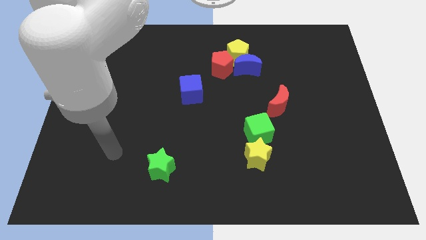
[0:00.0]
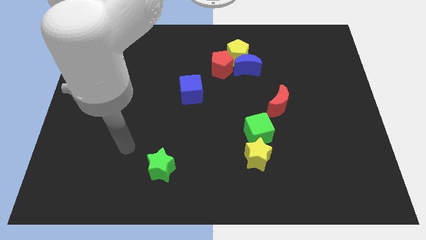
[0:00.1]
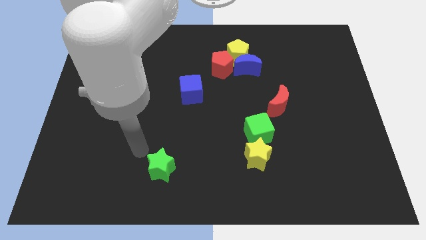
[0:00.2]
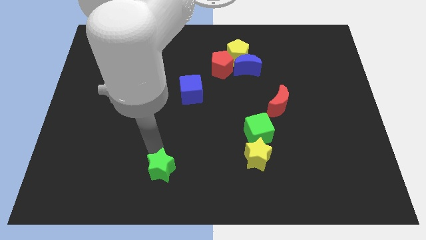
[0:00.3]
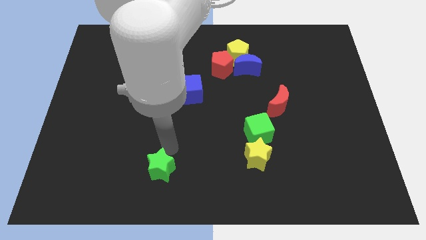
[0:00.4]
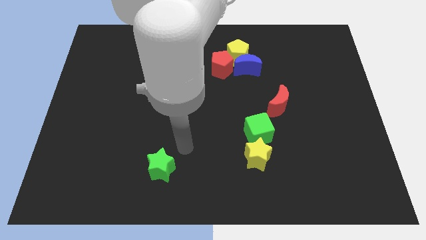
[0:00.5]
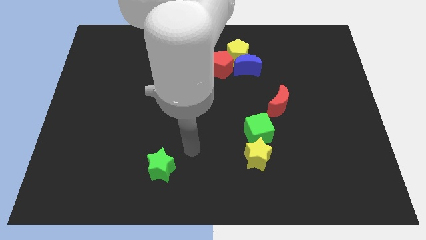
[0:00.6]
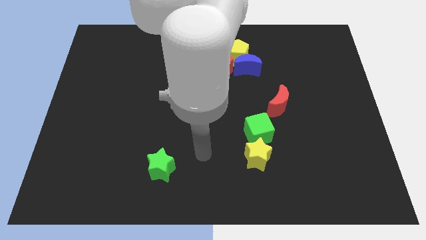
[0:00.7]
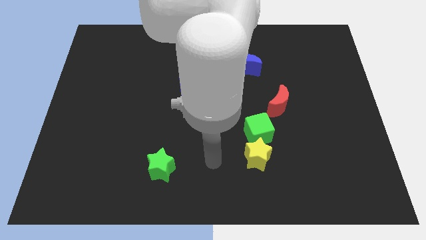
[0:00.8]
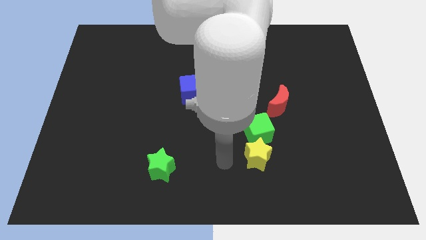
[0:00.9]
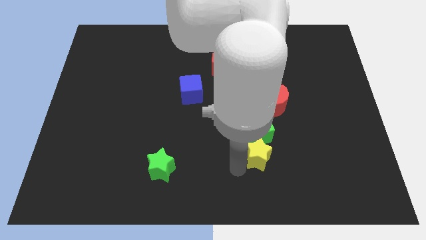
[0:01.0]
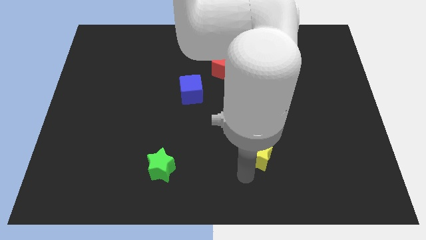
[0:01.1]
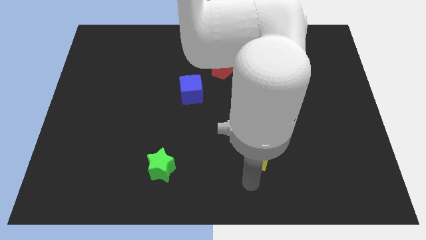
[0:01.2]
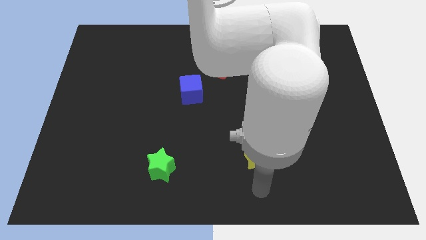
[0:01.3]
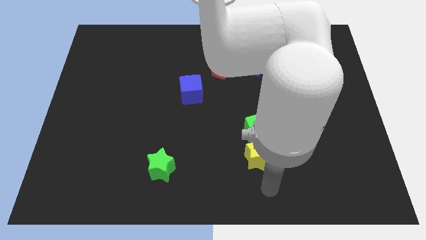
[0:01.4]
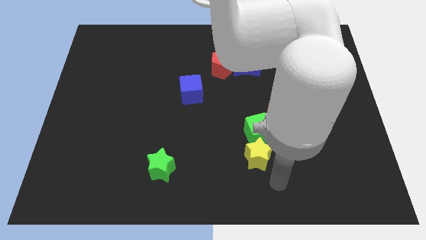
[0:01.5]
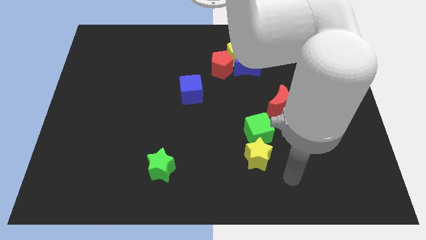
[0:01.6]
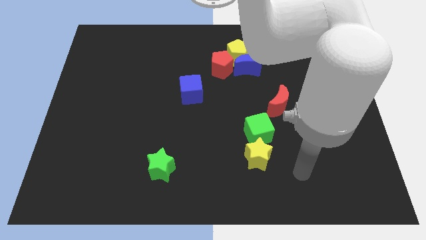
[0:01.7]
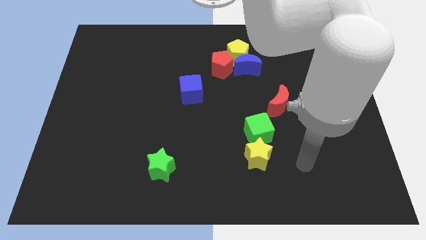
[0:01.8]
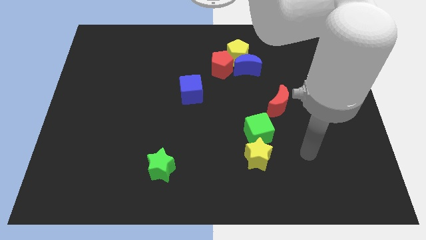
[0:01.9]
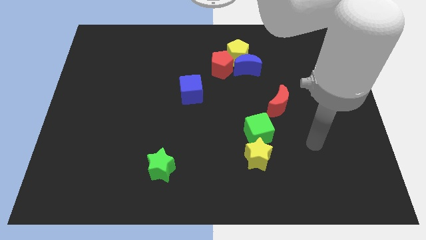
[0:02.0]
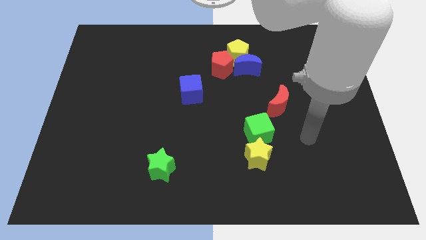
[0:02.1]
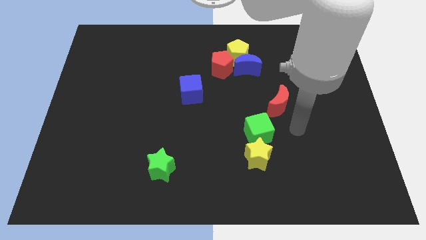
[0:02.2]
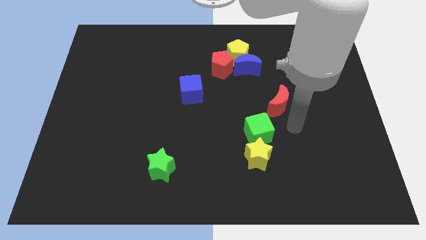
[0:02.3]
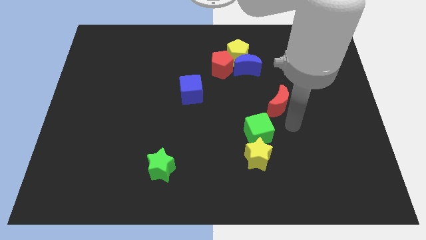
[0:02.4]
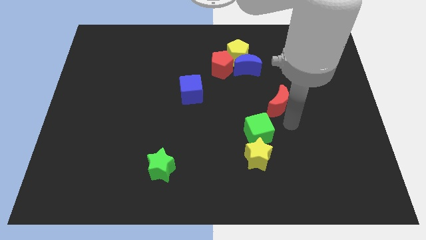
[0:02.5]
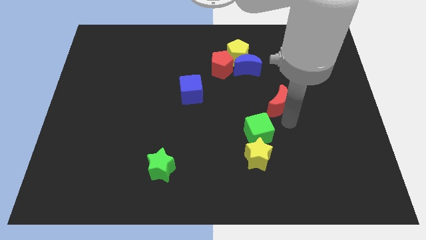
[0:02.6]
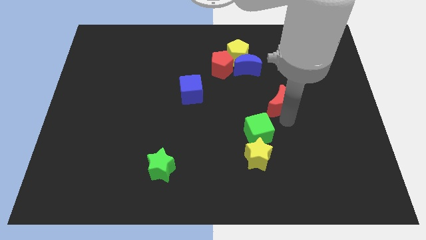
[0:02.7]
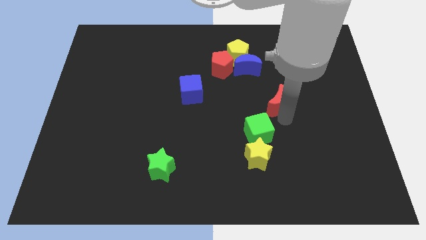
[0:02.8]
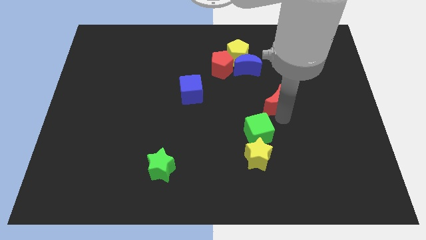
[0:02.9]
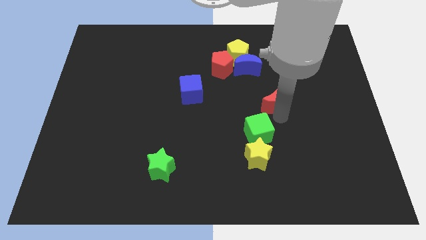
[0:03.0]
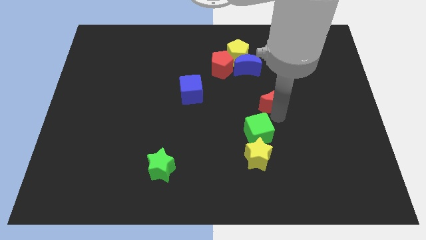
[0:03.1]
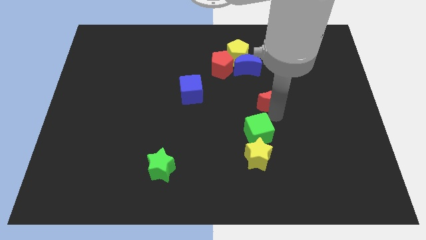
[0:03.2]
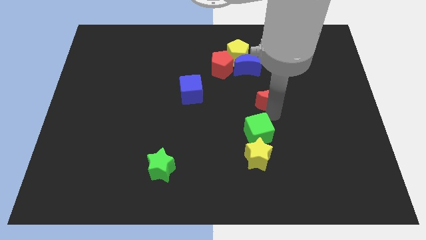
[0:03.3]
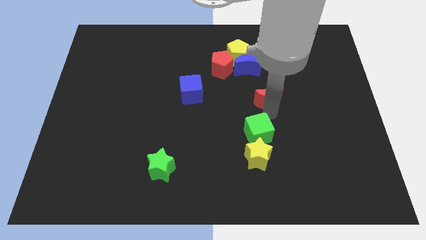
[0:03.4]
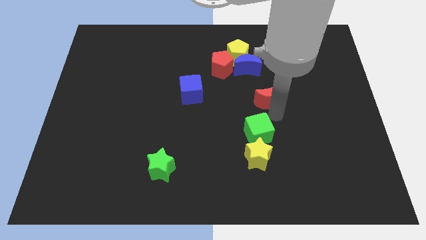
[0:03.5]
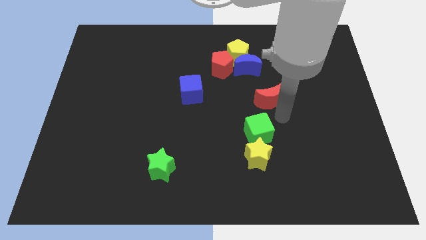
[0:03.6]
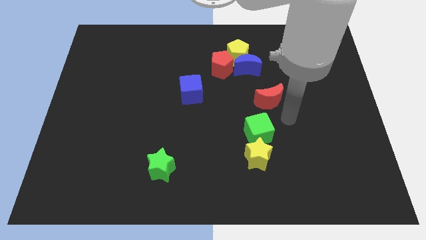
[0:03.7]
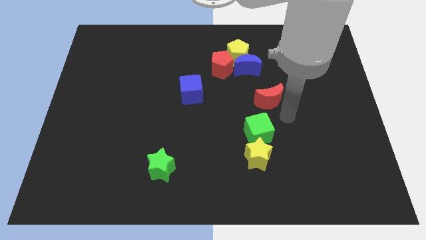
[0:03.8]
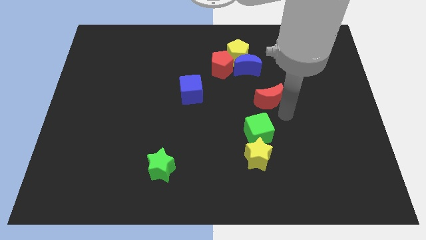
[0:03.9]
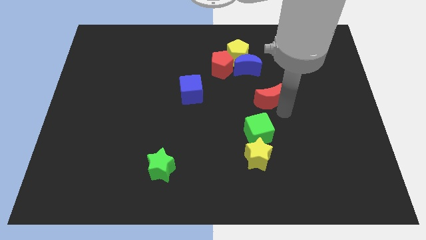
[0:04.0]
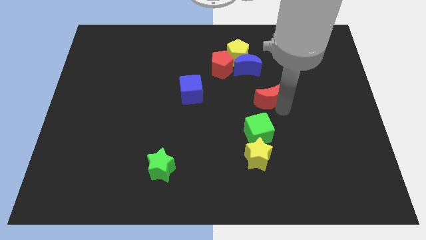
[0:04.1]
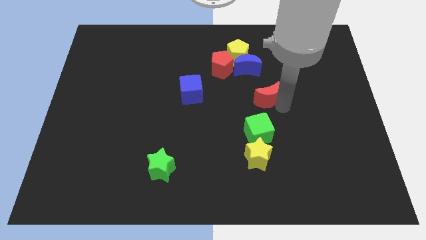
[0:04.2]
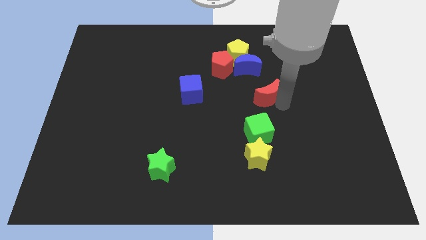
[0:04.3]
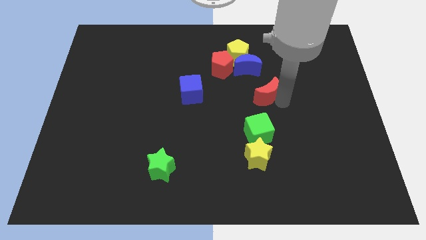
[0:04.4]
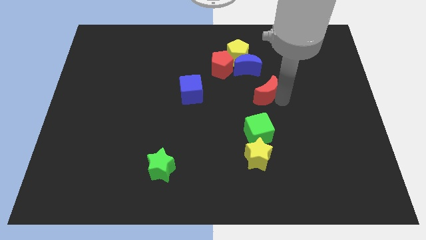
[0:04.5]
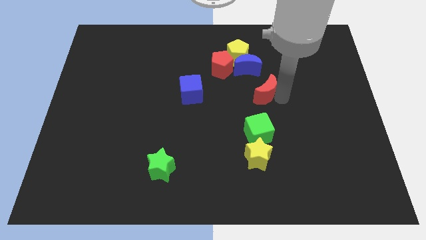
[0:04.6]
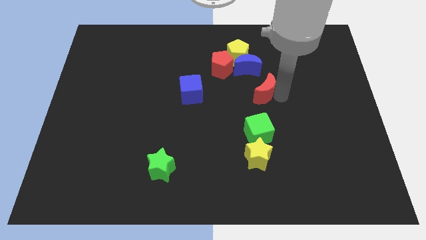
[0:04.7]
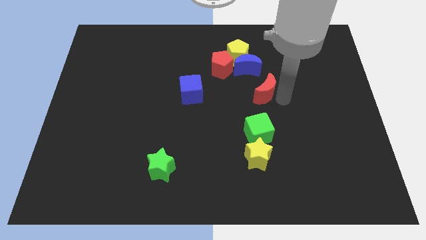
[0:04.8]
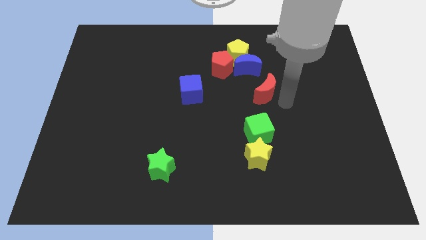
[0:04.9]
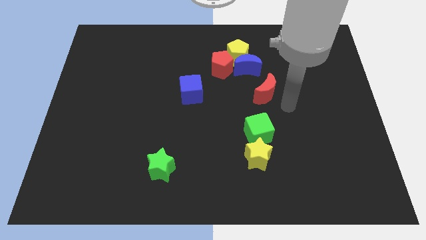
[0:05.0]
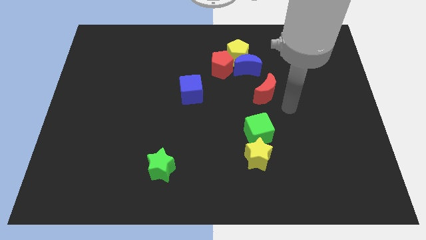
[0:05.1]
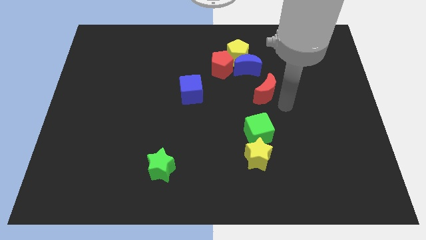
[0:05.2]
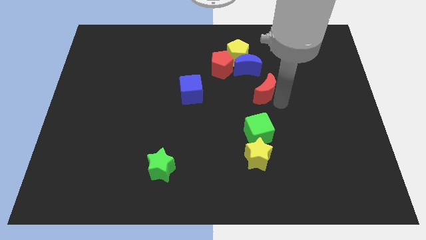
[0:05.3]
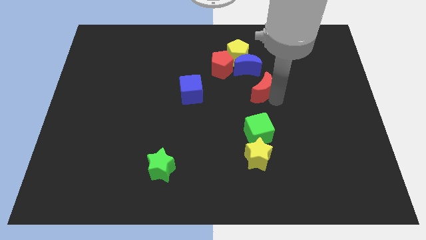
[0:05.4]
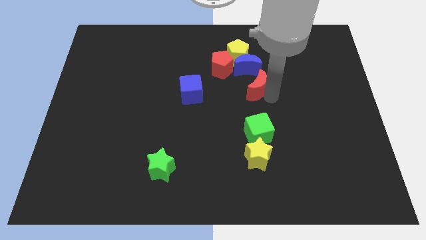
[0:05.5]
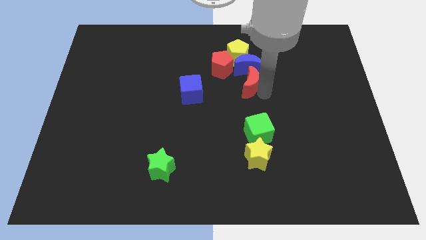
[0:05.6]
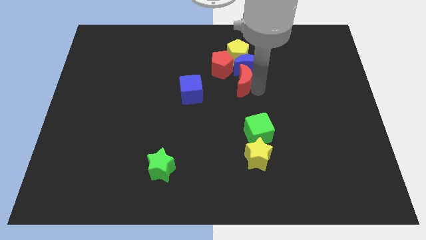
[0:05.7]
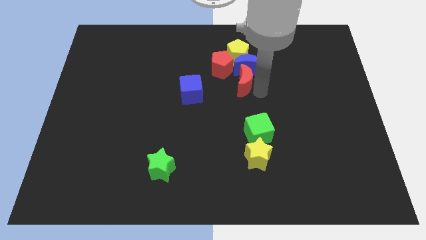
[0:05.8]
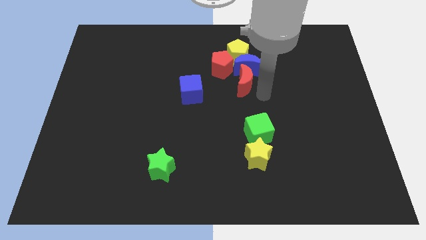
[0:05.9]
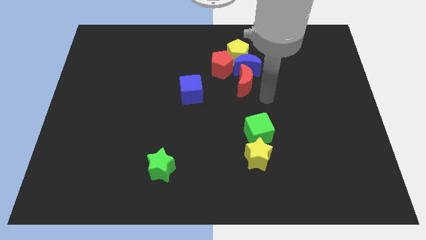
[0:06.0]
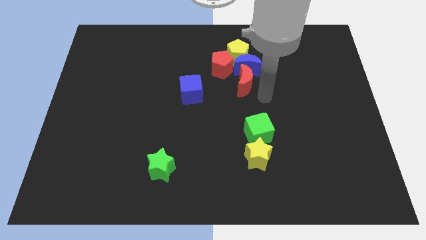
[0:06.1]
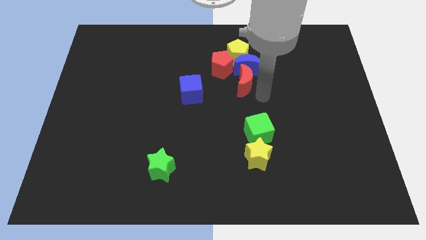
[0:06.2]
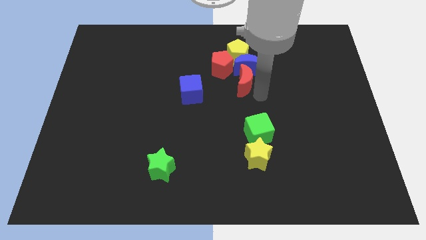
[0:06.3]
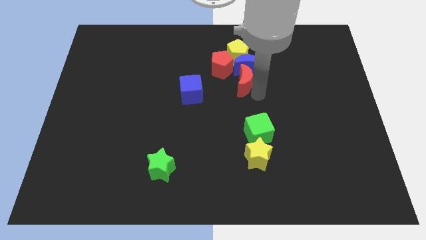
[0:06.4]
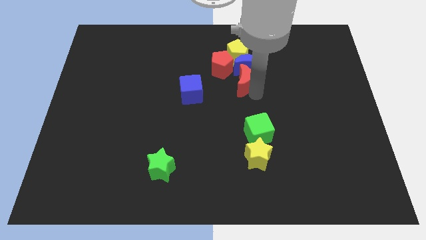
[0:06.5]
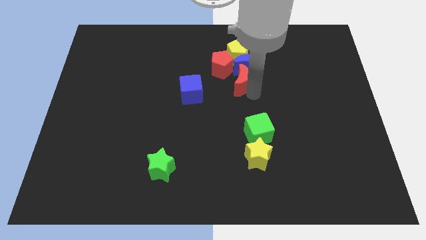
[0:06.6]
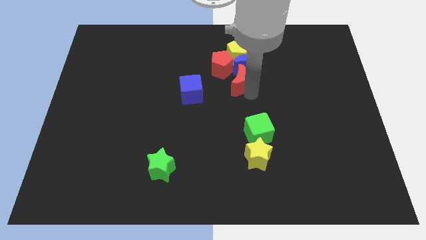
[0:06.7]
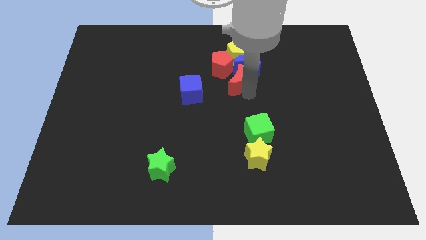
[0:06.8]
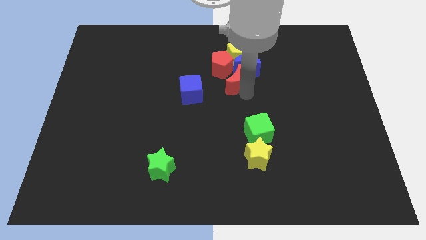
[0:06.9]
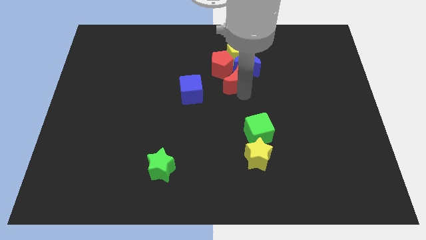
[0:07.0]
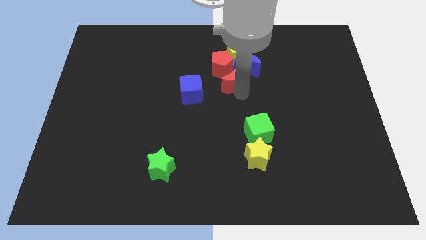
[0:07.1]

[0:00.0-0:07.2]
slide the red moon to the red pentagon

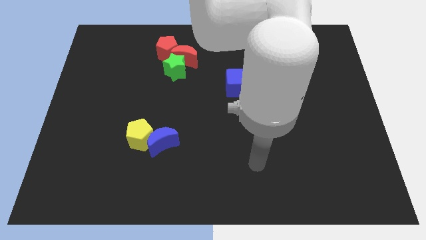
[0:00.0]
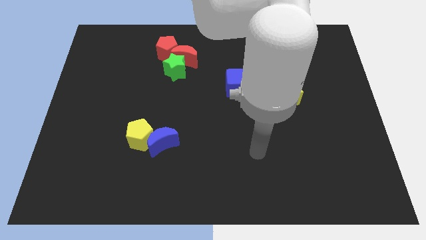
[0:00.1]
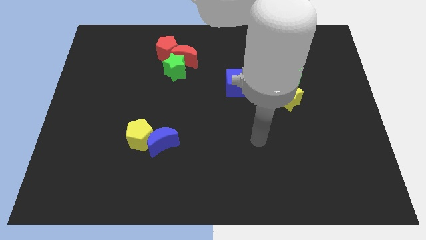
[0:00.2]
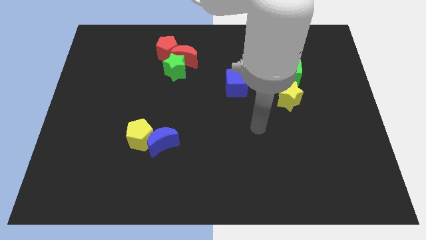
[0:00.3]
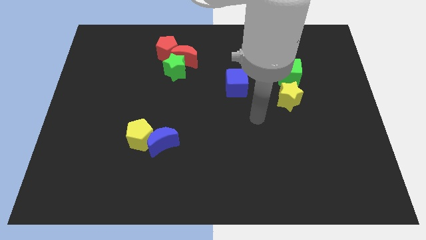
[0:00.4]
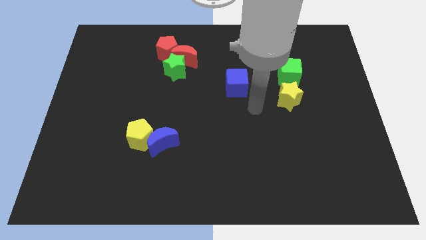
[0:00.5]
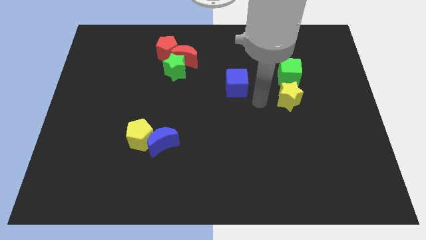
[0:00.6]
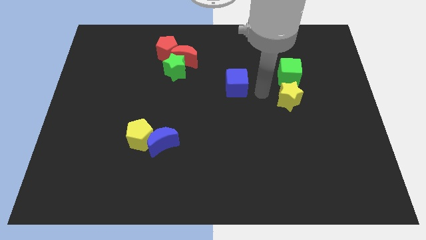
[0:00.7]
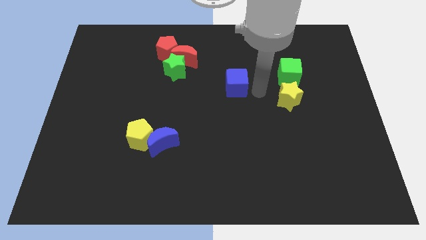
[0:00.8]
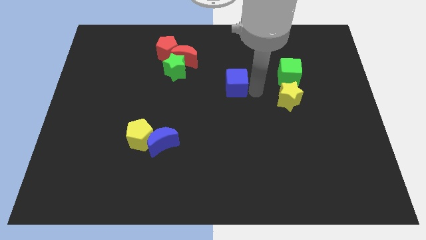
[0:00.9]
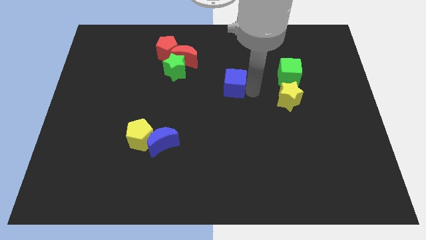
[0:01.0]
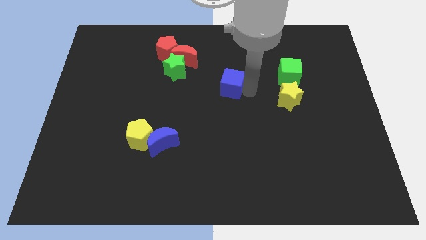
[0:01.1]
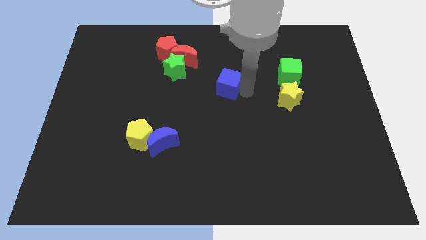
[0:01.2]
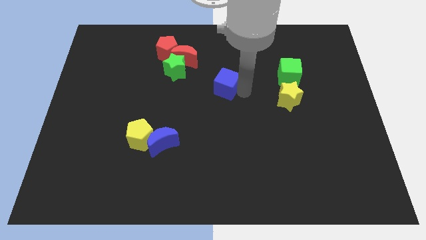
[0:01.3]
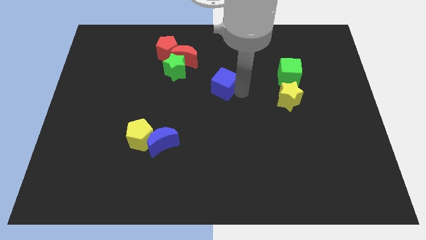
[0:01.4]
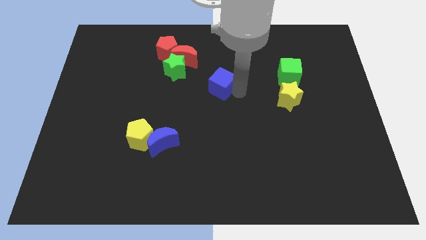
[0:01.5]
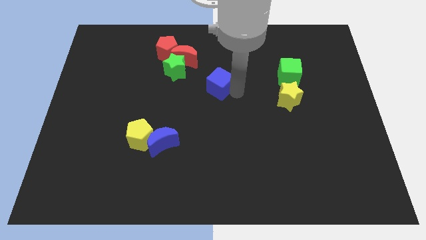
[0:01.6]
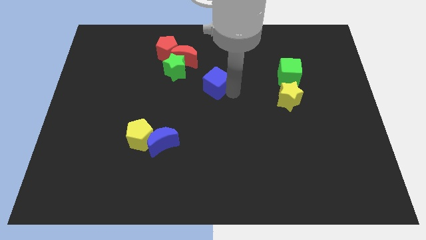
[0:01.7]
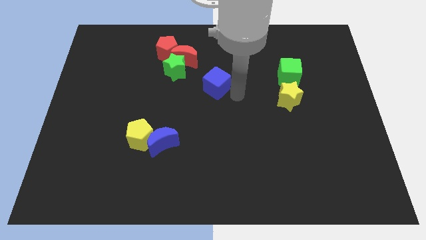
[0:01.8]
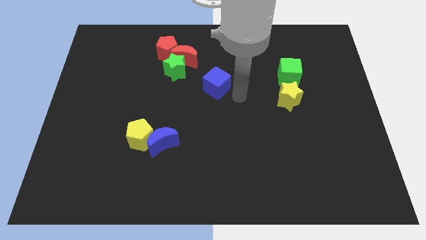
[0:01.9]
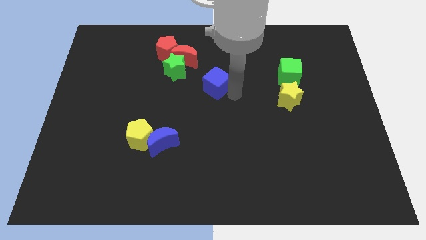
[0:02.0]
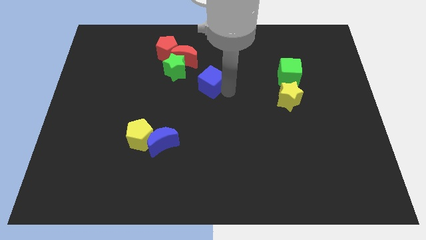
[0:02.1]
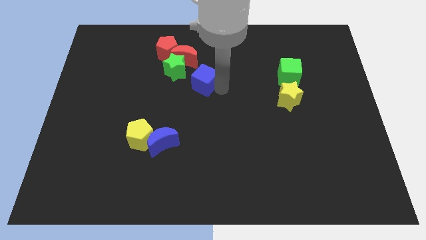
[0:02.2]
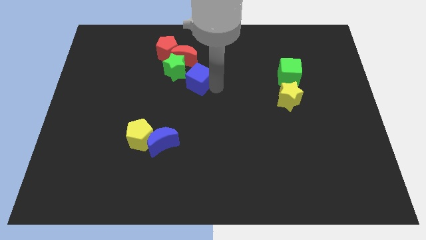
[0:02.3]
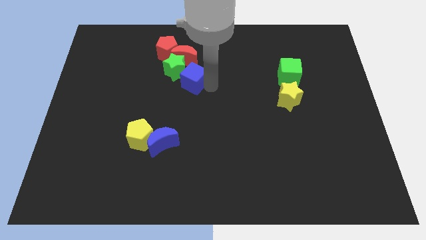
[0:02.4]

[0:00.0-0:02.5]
move the blue cube next to the green star
